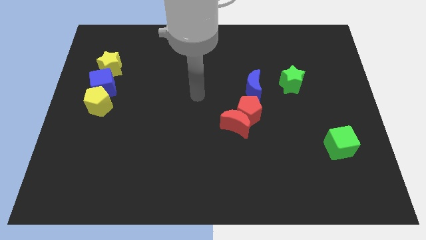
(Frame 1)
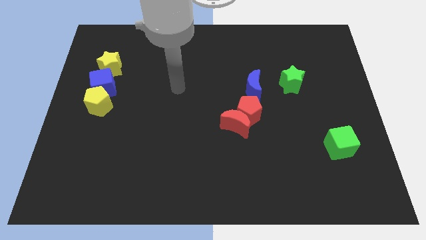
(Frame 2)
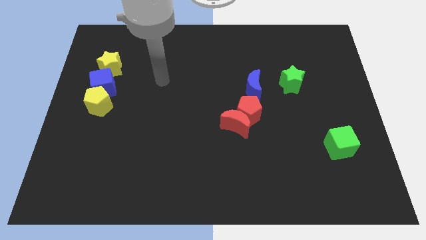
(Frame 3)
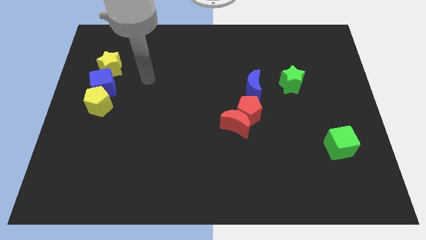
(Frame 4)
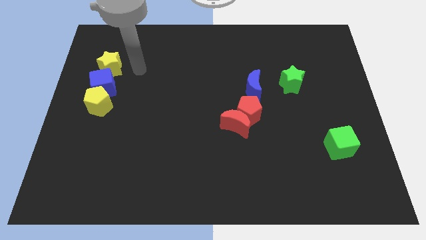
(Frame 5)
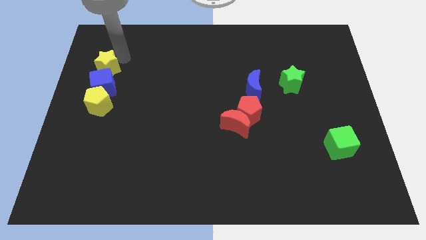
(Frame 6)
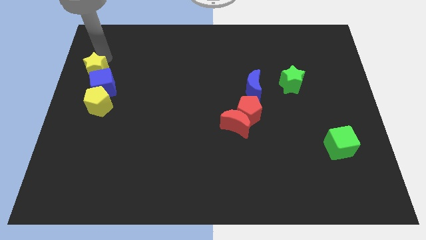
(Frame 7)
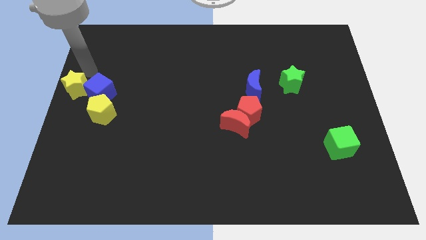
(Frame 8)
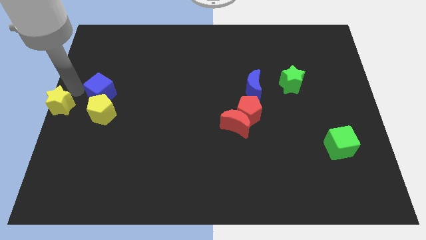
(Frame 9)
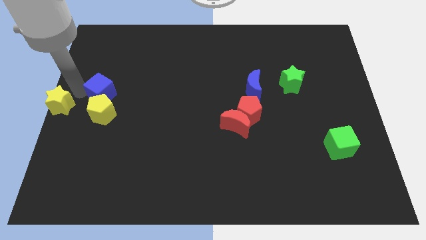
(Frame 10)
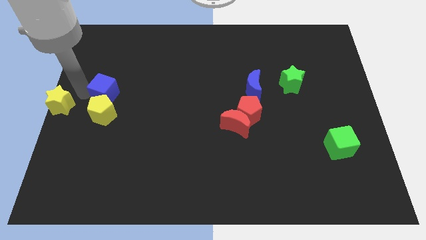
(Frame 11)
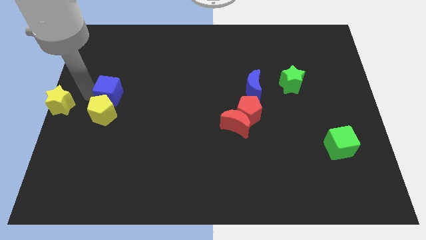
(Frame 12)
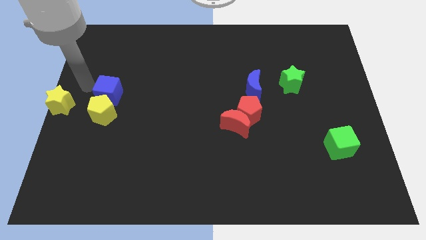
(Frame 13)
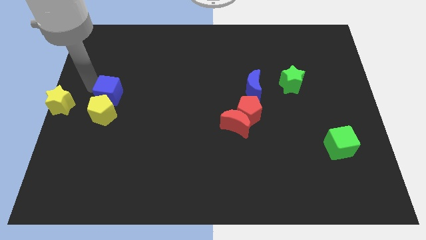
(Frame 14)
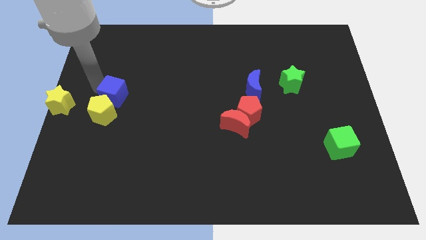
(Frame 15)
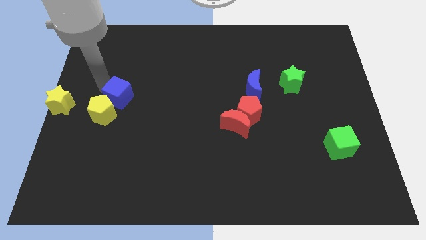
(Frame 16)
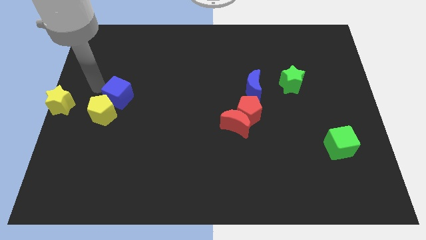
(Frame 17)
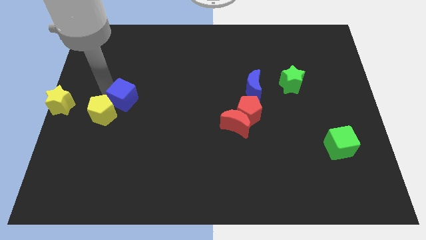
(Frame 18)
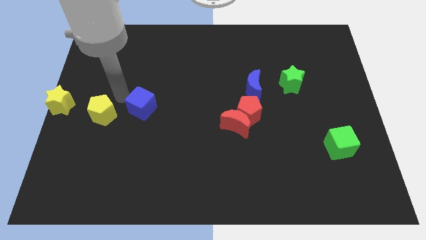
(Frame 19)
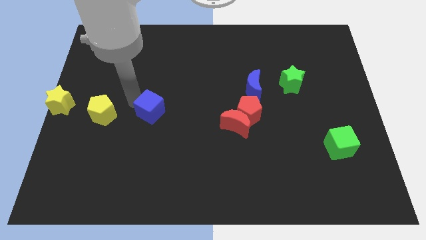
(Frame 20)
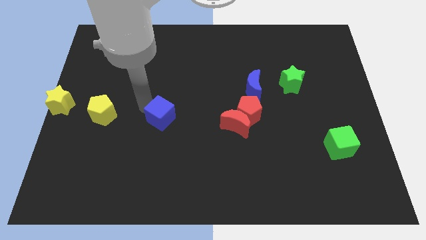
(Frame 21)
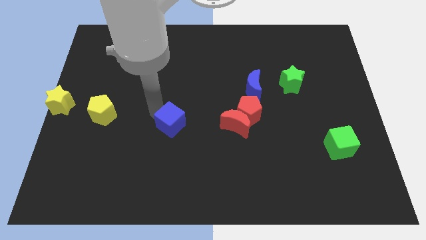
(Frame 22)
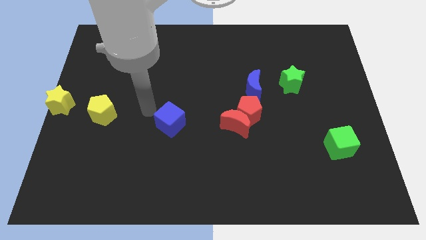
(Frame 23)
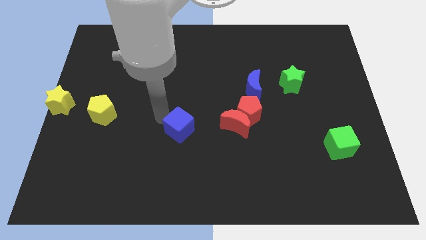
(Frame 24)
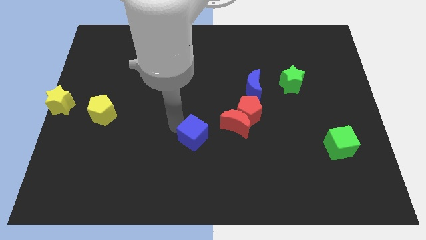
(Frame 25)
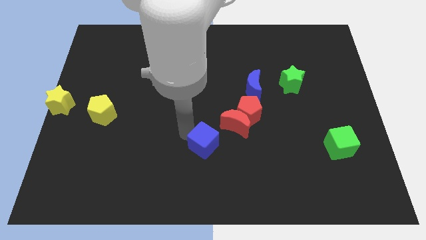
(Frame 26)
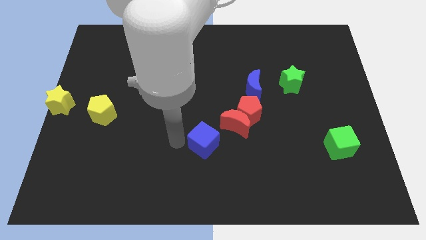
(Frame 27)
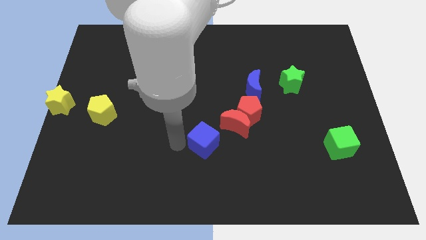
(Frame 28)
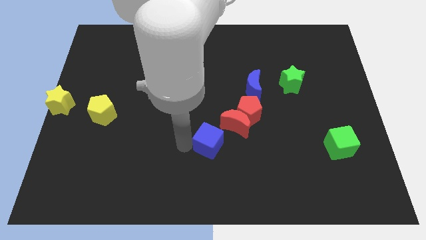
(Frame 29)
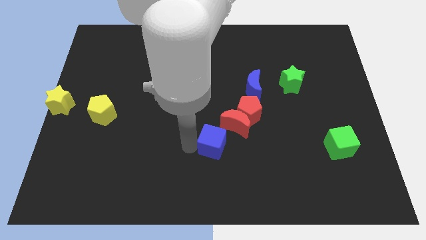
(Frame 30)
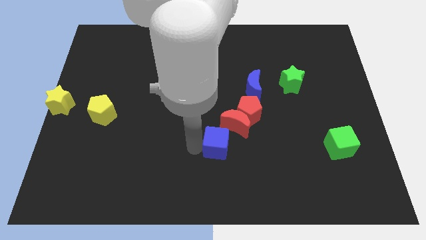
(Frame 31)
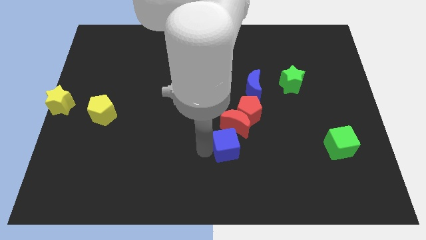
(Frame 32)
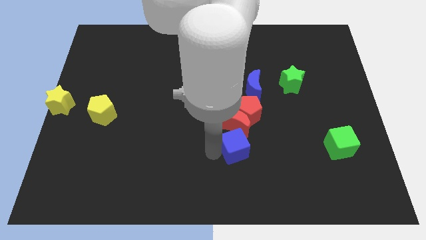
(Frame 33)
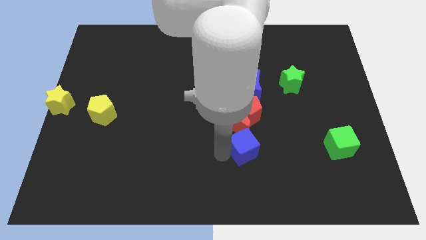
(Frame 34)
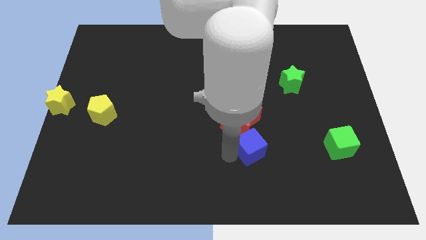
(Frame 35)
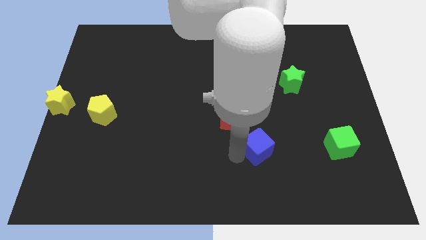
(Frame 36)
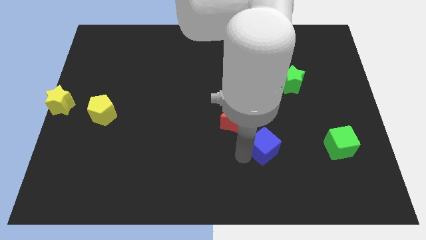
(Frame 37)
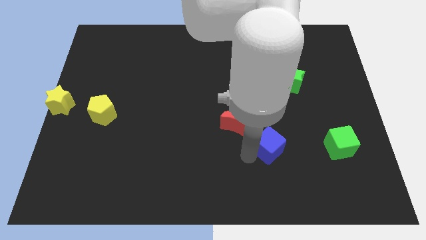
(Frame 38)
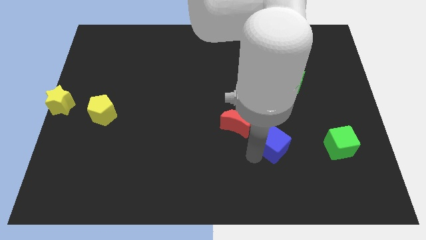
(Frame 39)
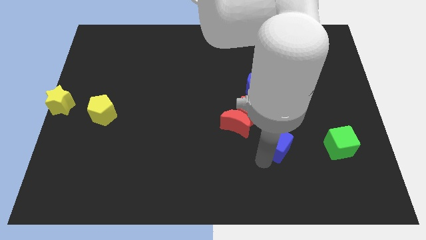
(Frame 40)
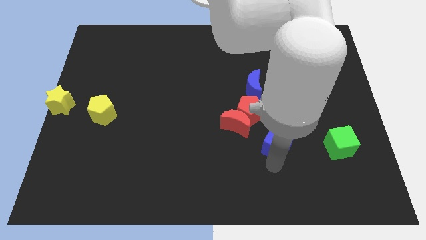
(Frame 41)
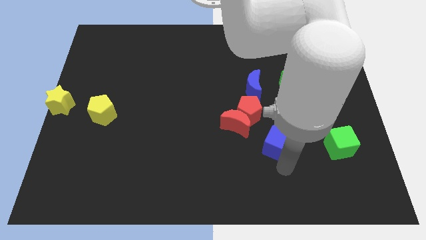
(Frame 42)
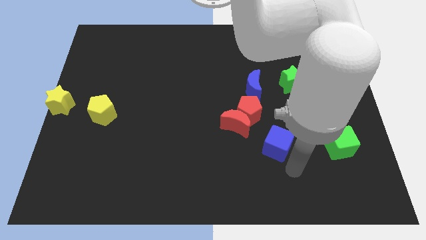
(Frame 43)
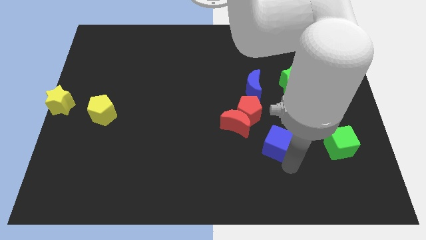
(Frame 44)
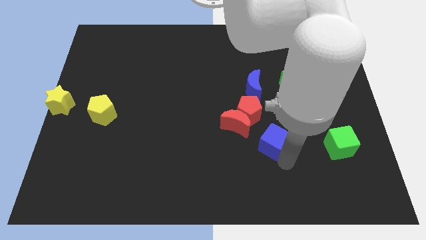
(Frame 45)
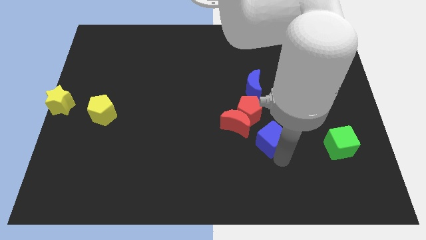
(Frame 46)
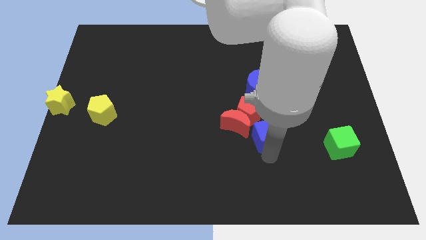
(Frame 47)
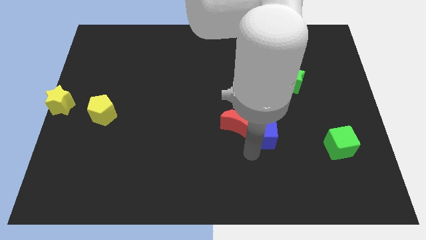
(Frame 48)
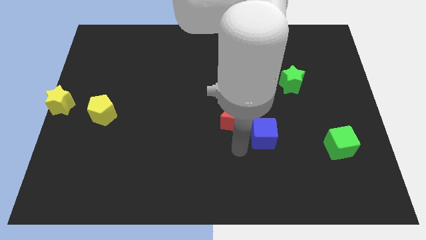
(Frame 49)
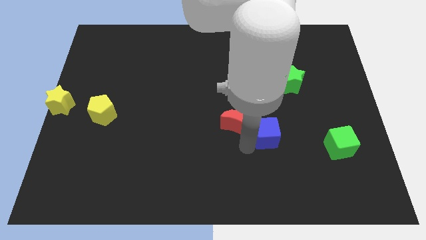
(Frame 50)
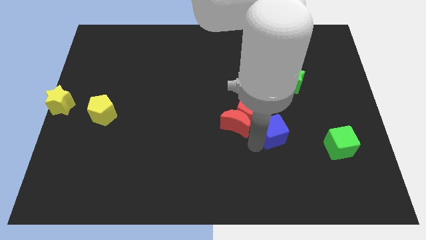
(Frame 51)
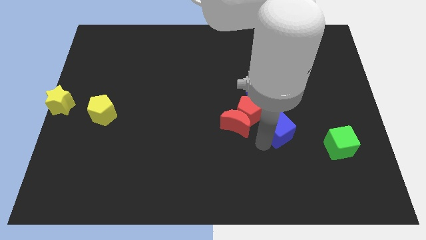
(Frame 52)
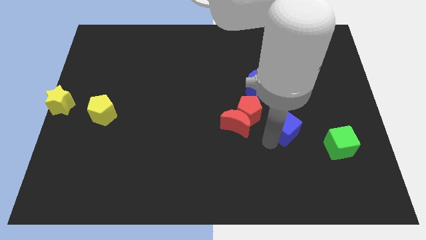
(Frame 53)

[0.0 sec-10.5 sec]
slide the blue cube below the green star

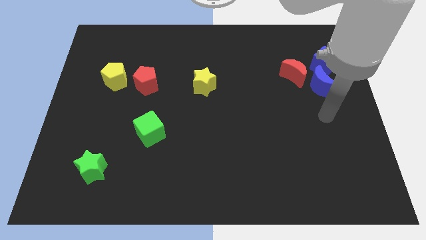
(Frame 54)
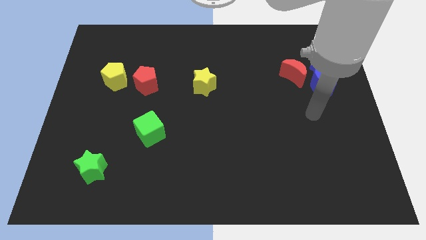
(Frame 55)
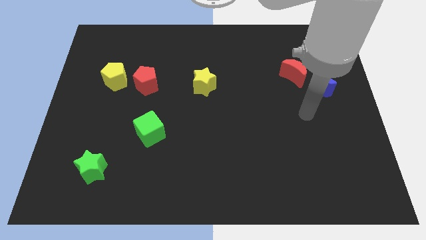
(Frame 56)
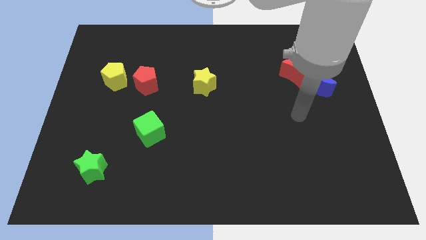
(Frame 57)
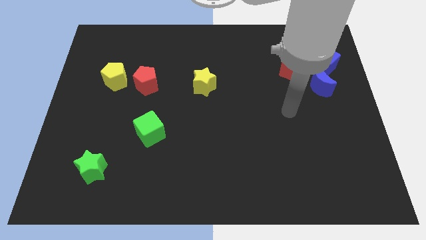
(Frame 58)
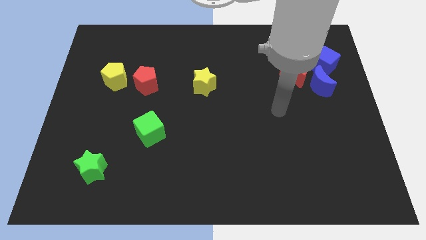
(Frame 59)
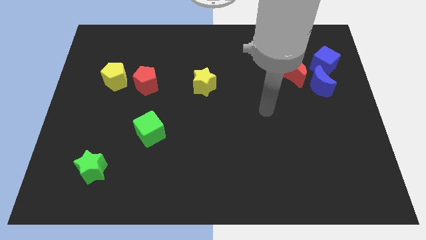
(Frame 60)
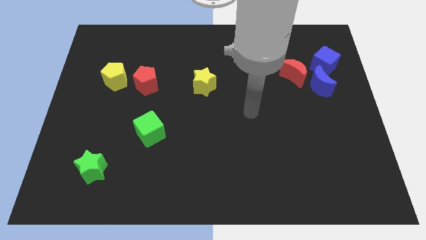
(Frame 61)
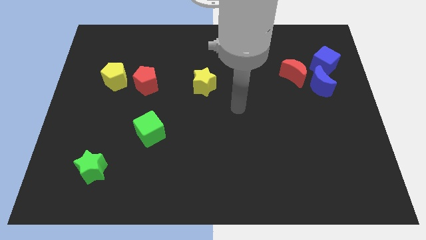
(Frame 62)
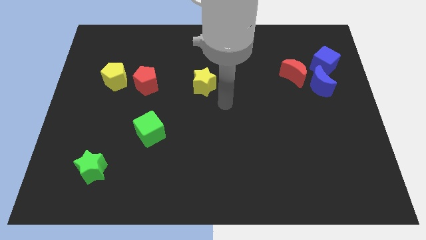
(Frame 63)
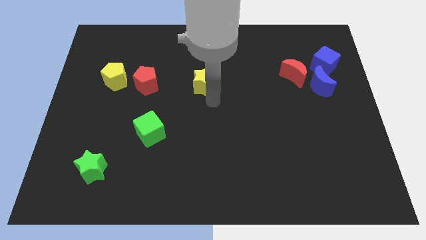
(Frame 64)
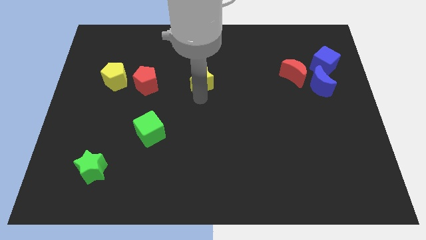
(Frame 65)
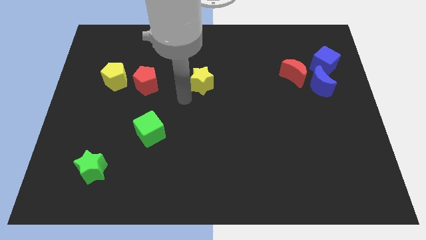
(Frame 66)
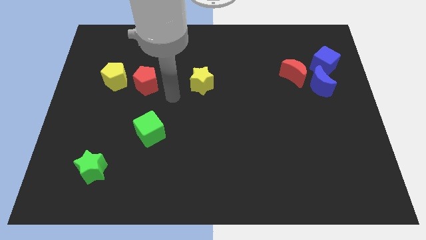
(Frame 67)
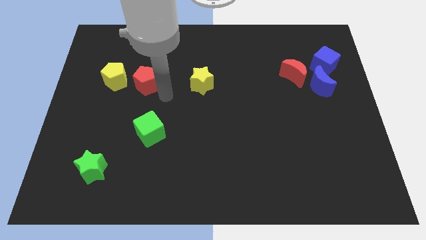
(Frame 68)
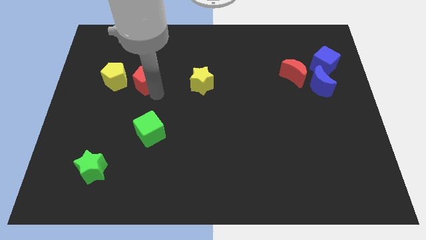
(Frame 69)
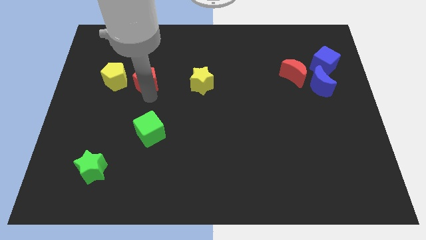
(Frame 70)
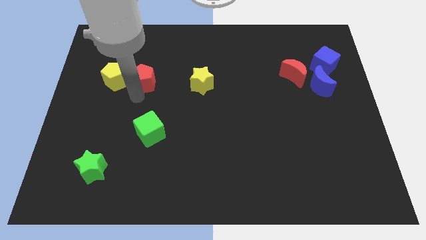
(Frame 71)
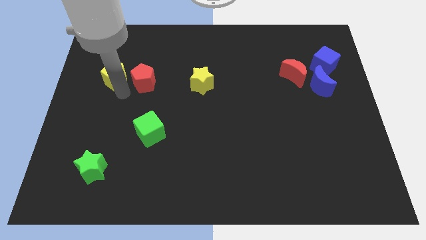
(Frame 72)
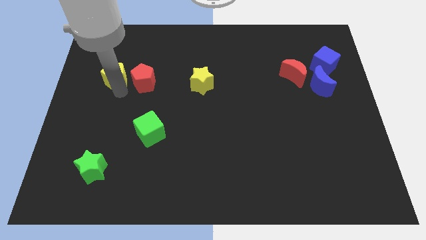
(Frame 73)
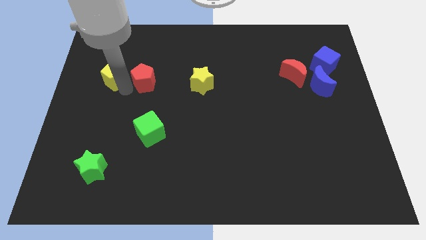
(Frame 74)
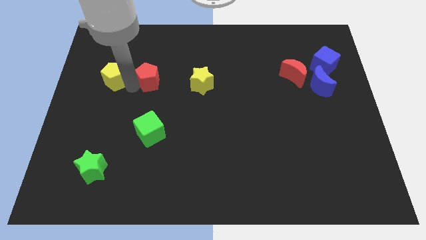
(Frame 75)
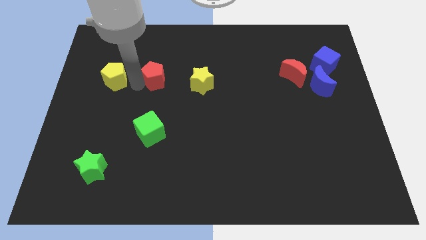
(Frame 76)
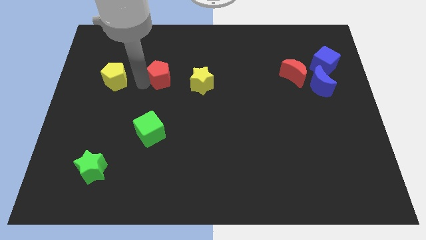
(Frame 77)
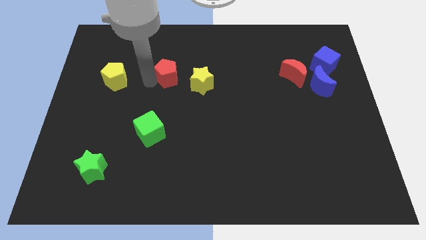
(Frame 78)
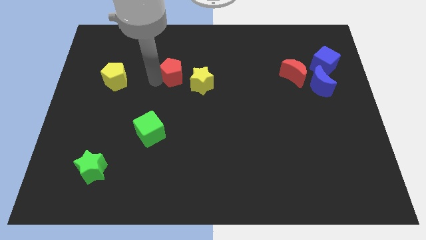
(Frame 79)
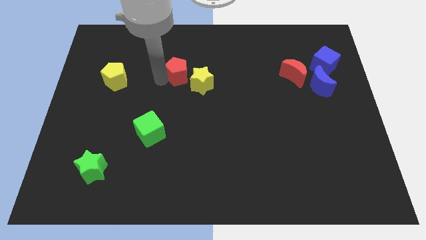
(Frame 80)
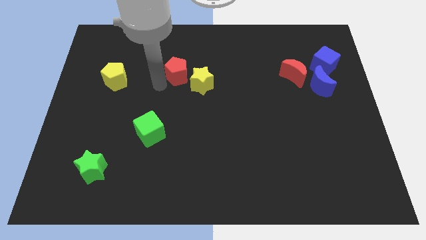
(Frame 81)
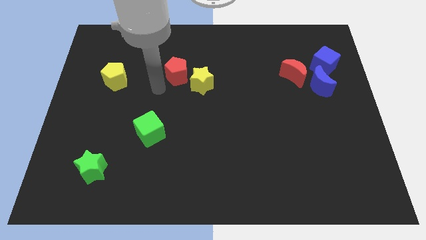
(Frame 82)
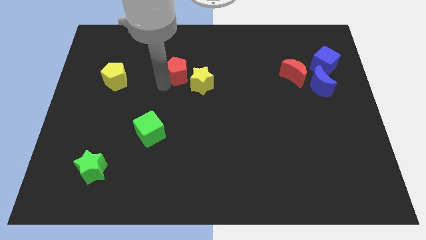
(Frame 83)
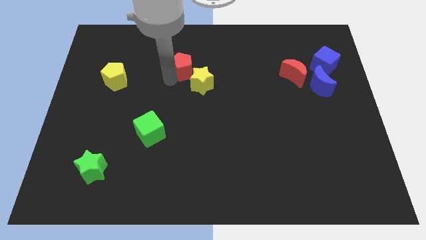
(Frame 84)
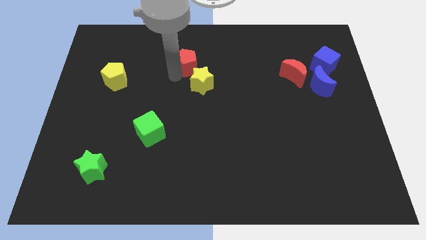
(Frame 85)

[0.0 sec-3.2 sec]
move the red pentagon above the yellow star
